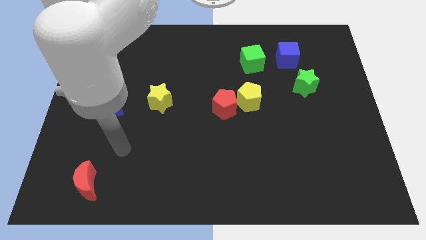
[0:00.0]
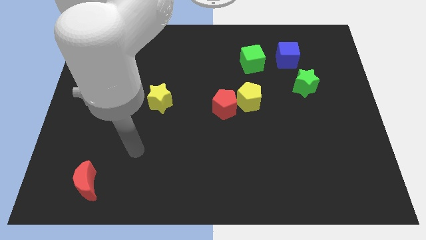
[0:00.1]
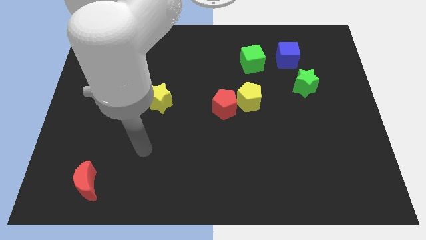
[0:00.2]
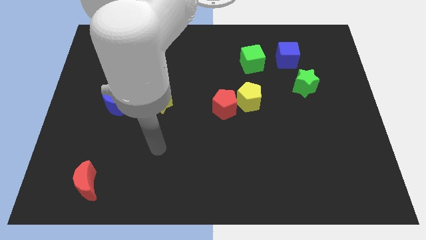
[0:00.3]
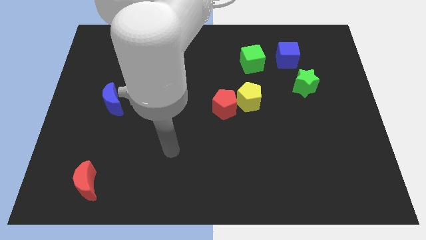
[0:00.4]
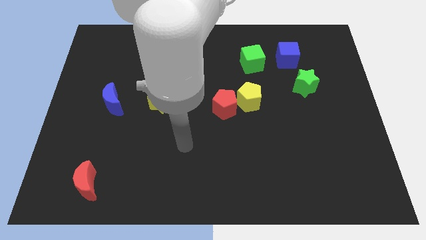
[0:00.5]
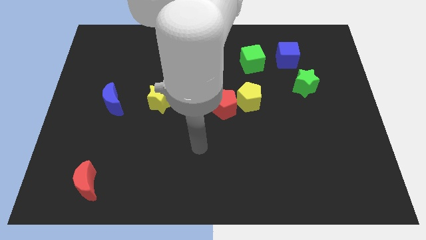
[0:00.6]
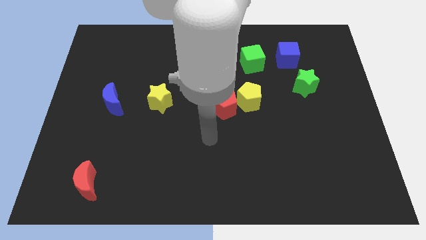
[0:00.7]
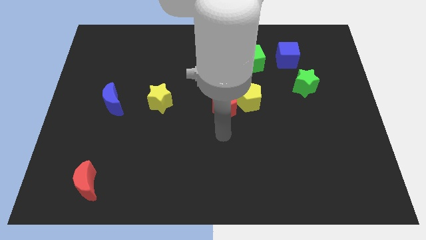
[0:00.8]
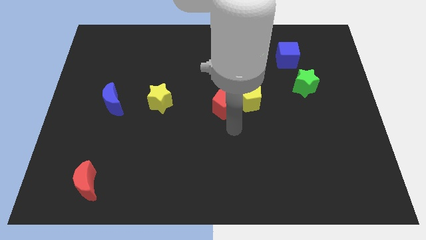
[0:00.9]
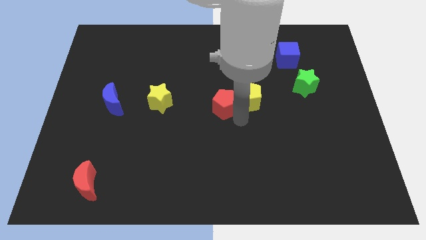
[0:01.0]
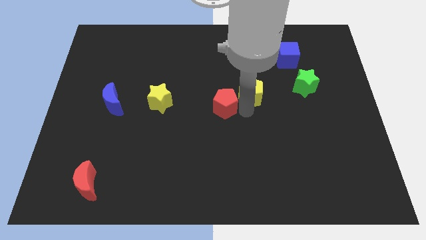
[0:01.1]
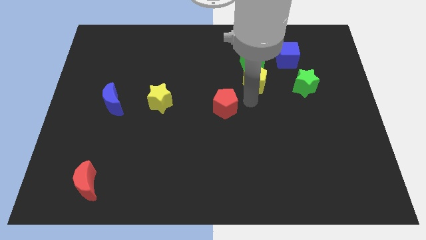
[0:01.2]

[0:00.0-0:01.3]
separate the red pentagon from the yellow pentagon

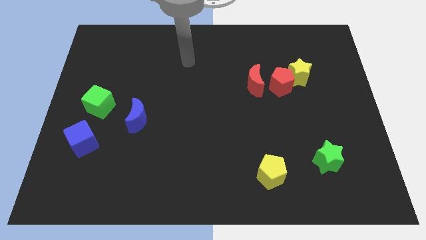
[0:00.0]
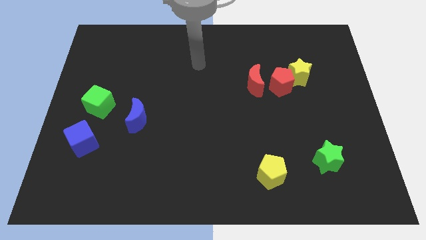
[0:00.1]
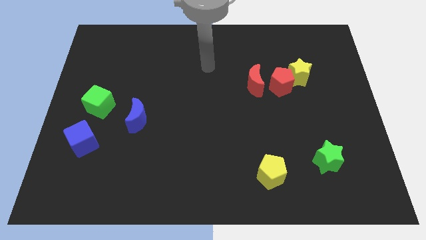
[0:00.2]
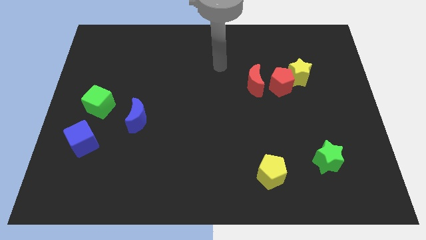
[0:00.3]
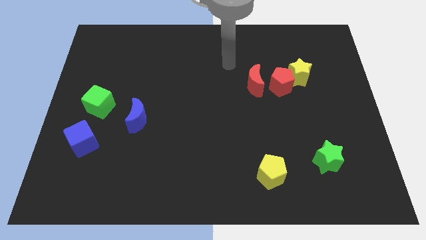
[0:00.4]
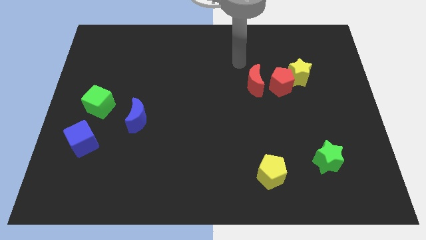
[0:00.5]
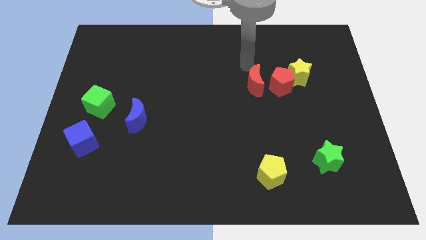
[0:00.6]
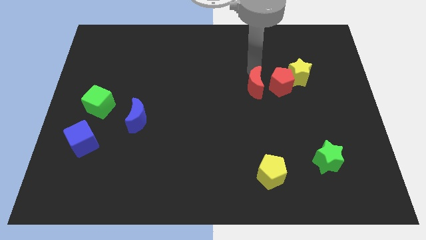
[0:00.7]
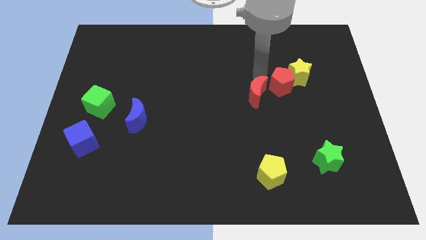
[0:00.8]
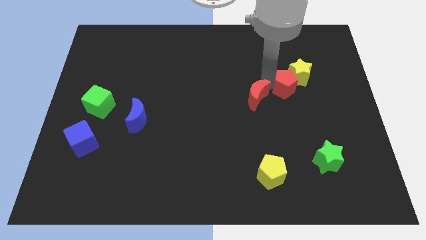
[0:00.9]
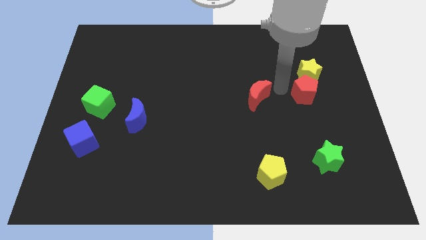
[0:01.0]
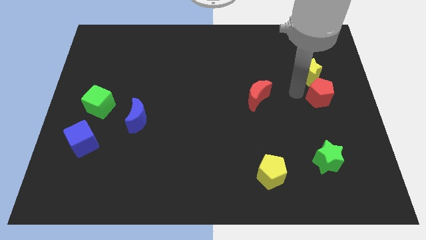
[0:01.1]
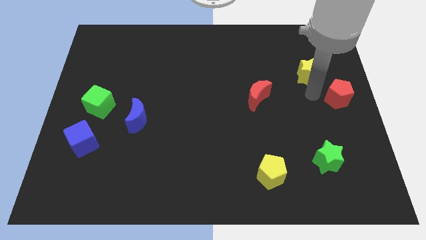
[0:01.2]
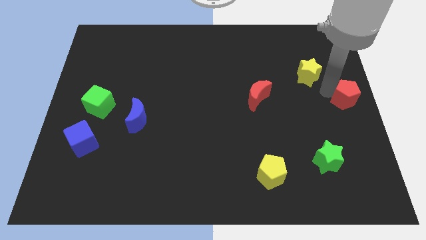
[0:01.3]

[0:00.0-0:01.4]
move the yellow star away from the red pentagon

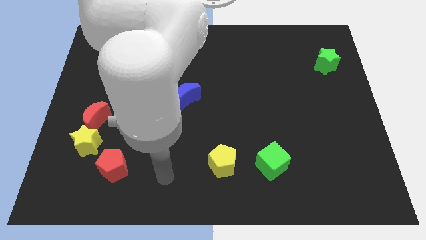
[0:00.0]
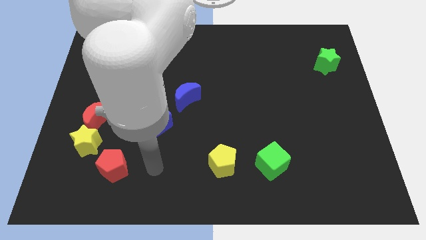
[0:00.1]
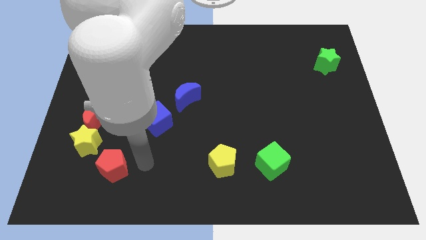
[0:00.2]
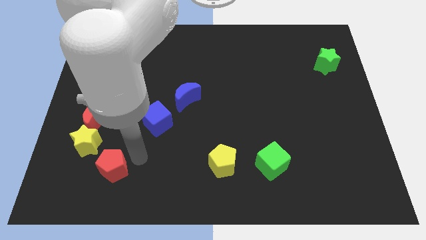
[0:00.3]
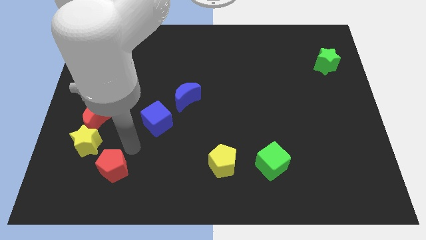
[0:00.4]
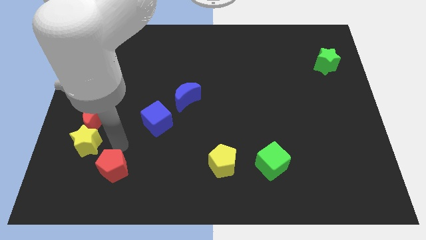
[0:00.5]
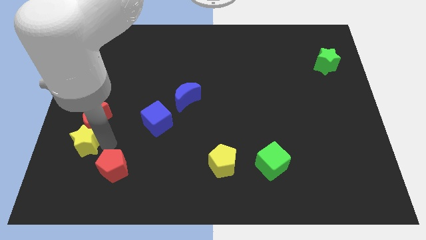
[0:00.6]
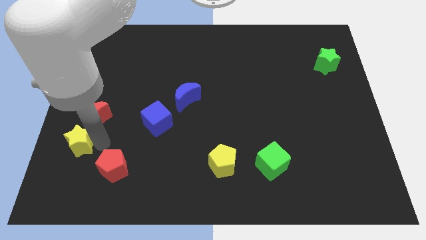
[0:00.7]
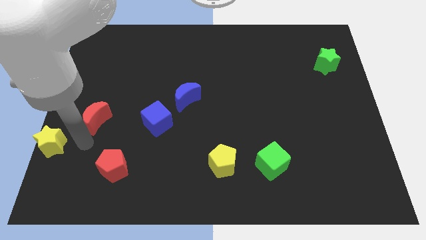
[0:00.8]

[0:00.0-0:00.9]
separate the red moon from the yellow star

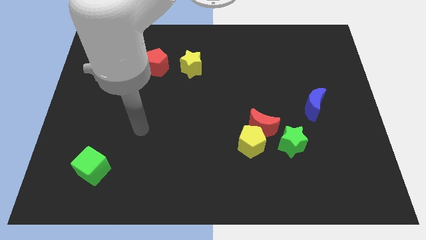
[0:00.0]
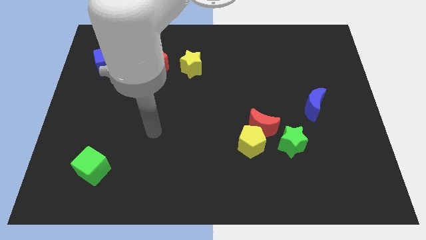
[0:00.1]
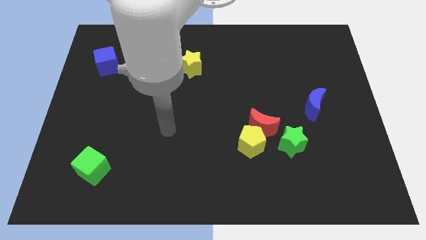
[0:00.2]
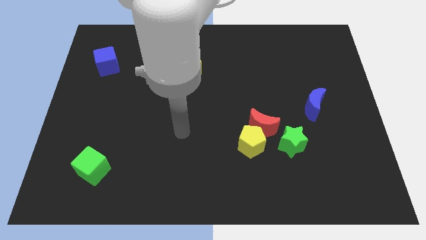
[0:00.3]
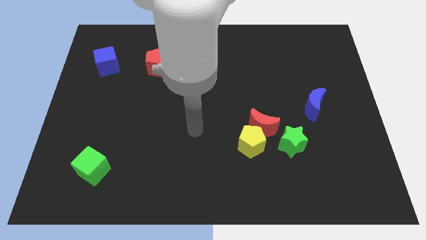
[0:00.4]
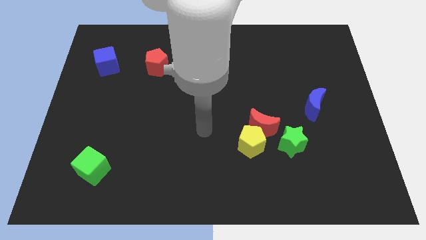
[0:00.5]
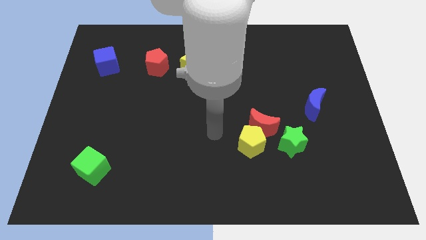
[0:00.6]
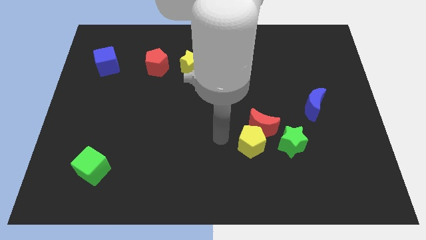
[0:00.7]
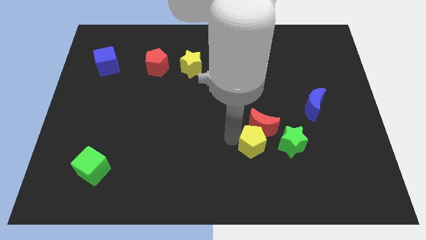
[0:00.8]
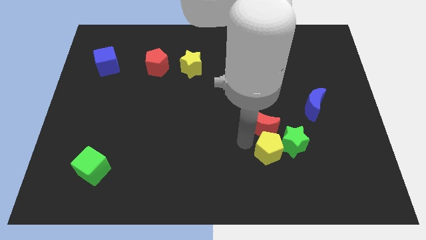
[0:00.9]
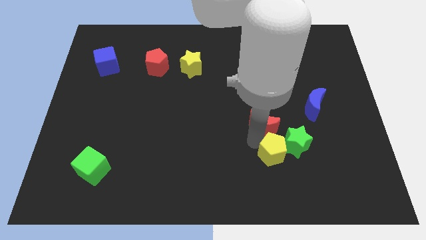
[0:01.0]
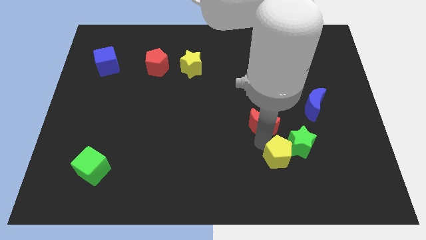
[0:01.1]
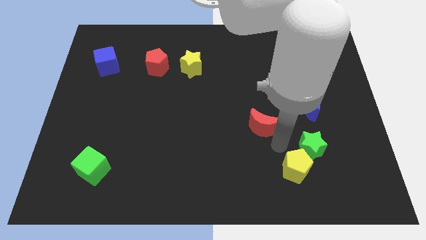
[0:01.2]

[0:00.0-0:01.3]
separate the red moon from the yellow pentagon and green star

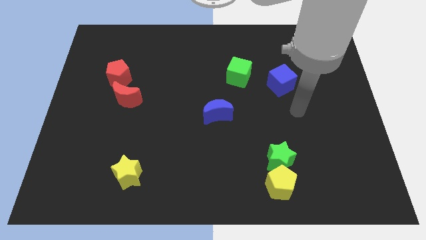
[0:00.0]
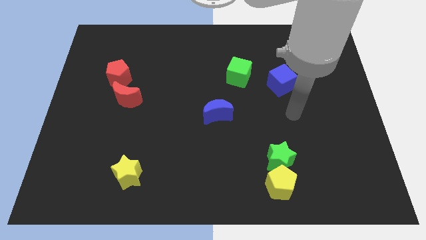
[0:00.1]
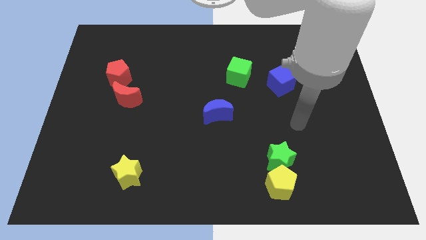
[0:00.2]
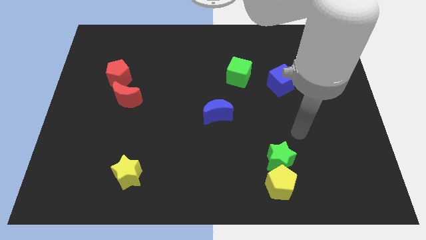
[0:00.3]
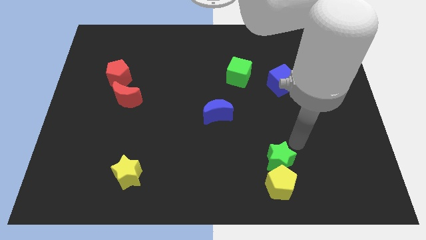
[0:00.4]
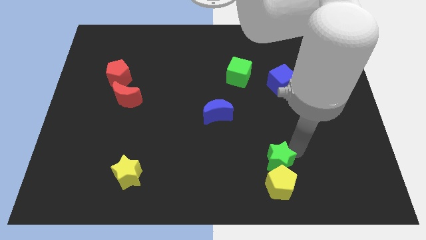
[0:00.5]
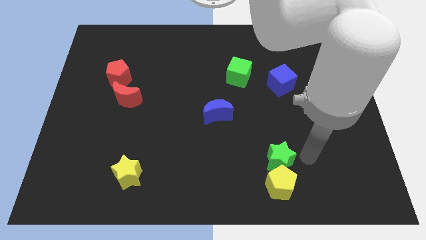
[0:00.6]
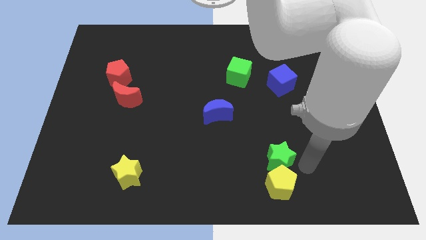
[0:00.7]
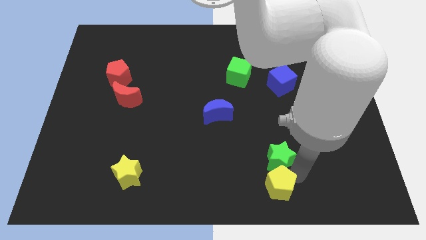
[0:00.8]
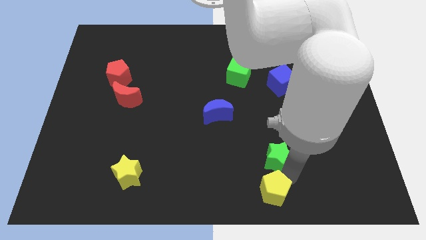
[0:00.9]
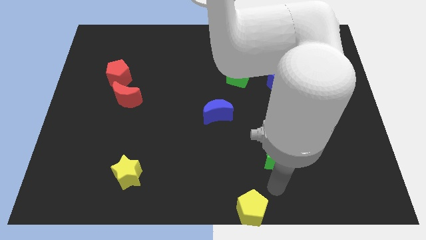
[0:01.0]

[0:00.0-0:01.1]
separate the green star from the yellow pentagon

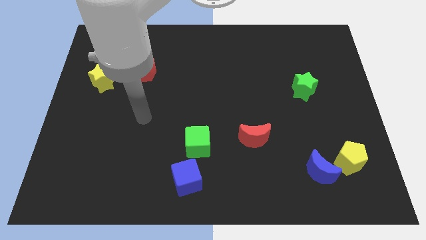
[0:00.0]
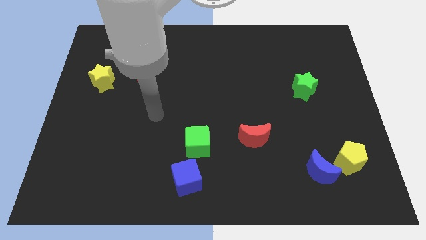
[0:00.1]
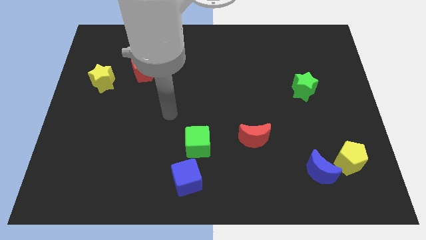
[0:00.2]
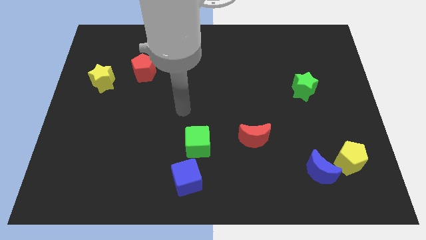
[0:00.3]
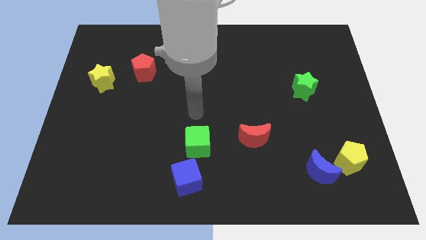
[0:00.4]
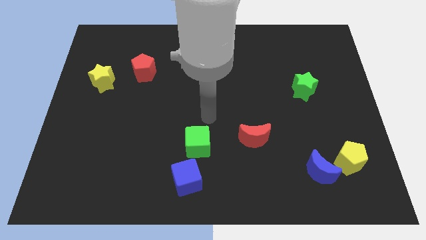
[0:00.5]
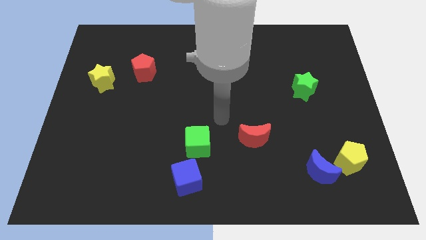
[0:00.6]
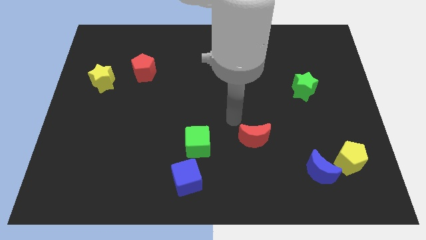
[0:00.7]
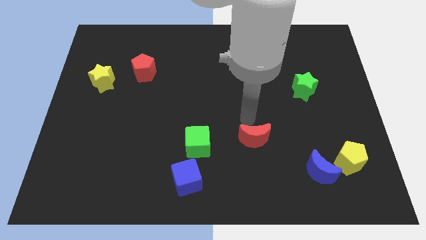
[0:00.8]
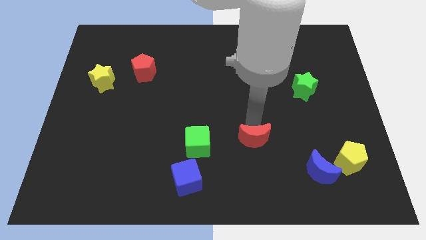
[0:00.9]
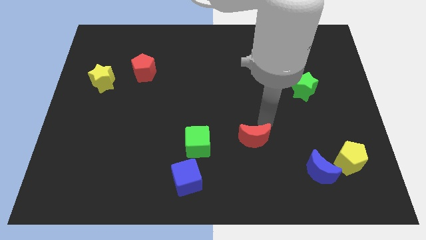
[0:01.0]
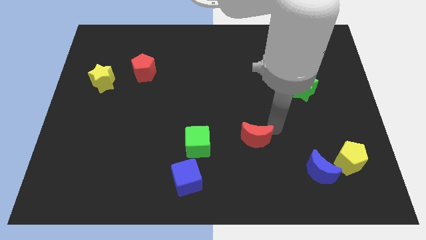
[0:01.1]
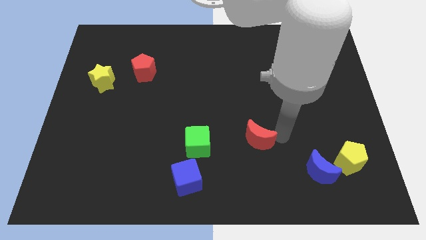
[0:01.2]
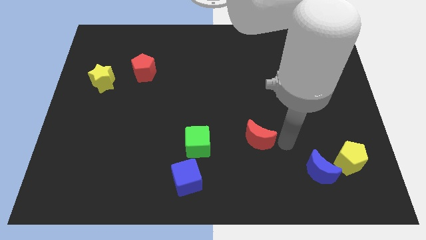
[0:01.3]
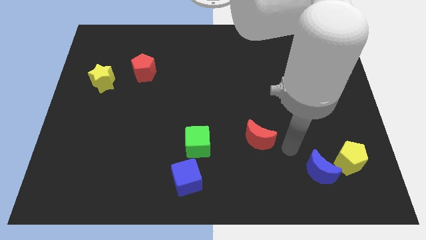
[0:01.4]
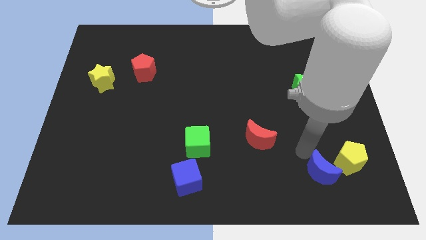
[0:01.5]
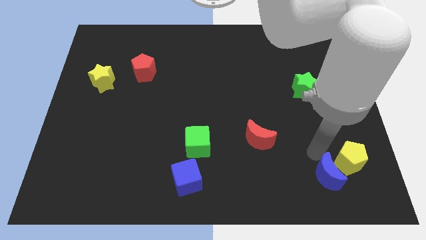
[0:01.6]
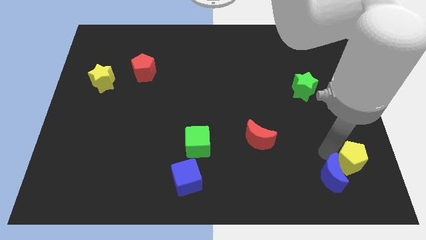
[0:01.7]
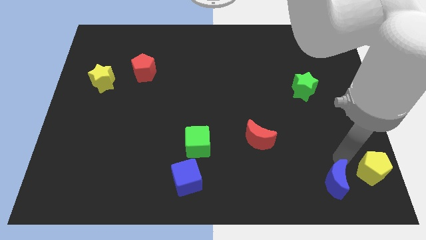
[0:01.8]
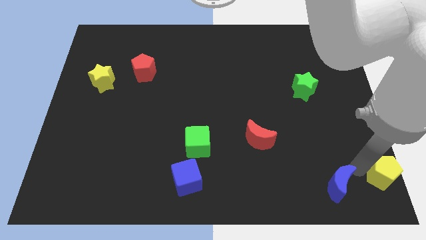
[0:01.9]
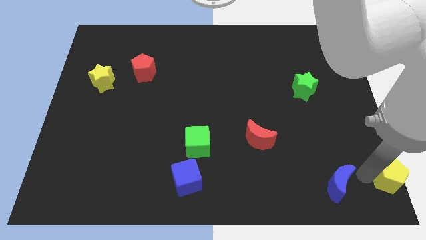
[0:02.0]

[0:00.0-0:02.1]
move the blue moon away from the yellow pentagon

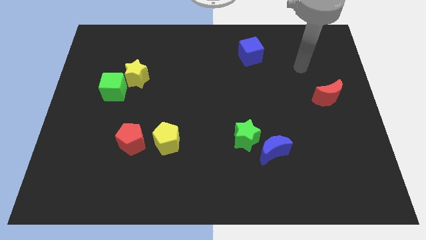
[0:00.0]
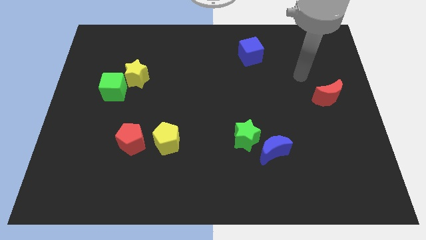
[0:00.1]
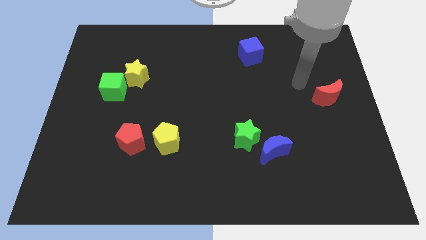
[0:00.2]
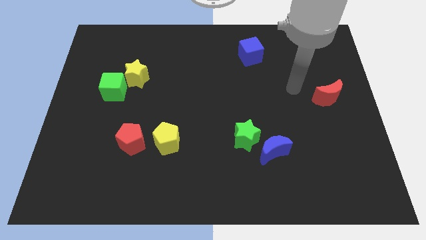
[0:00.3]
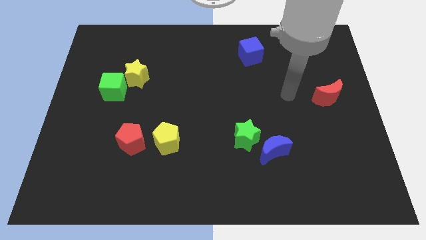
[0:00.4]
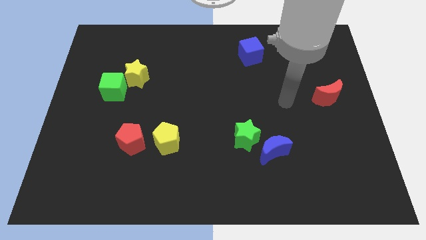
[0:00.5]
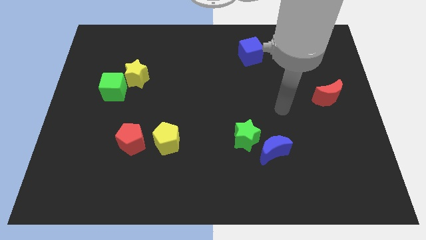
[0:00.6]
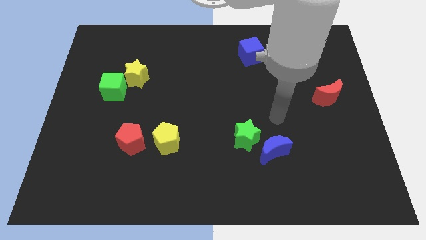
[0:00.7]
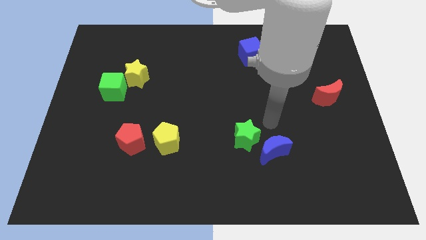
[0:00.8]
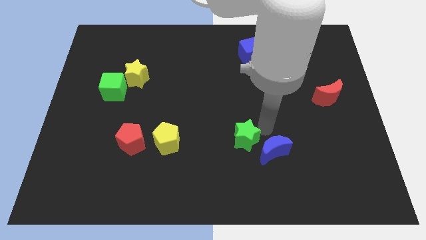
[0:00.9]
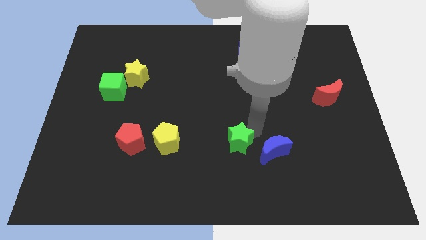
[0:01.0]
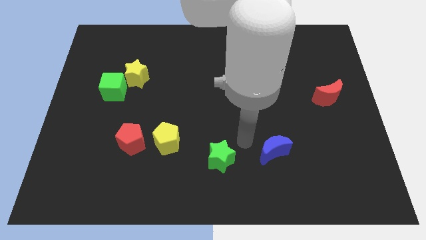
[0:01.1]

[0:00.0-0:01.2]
move the blue moon away from the green star
